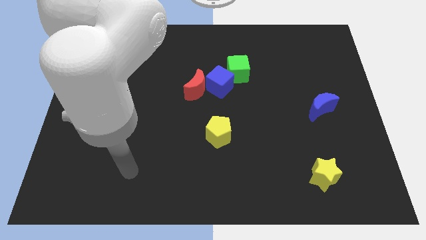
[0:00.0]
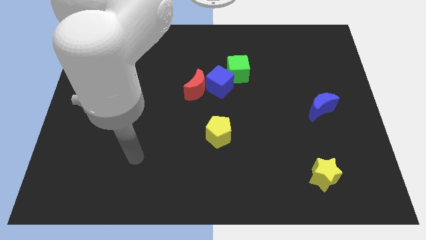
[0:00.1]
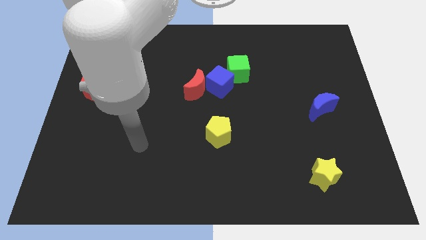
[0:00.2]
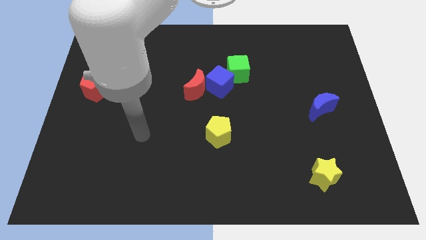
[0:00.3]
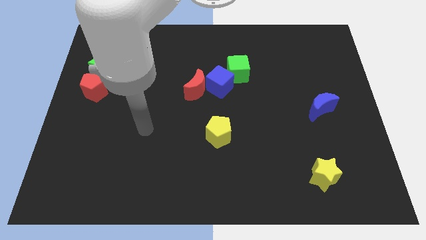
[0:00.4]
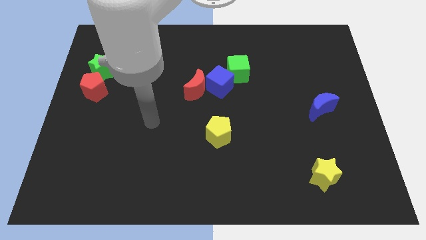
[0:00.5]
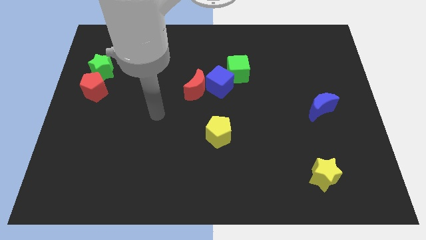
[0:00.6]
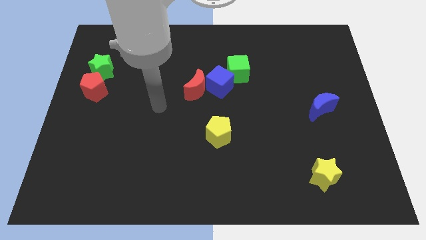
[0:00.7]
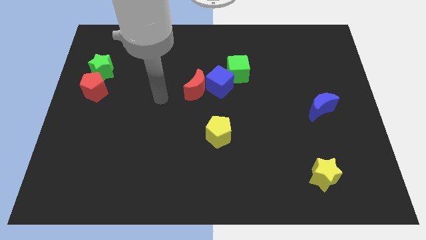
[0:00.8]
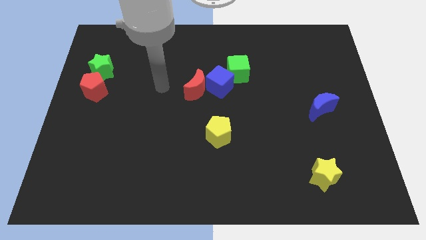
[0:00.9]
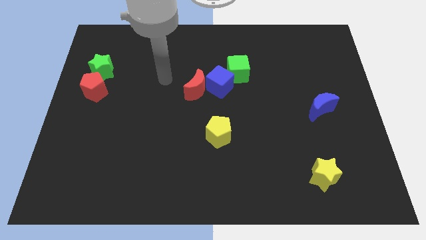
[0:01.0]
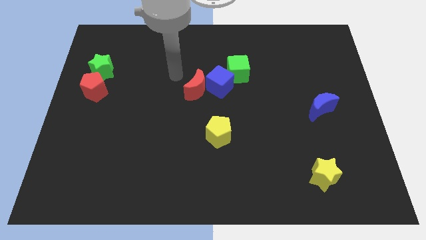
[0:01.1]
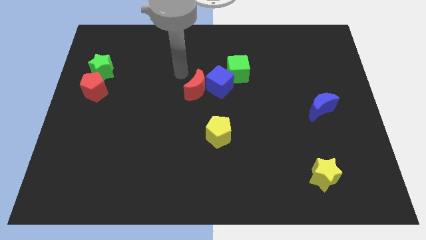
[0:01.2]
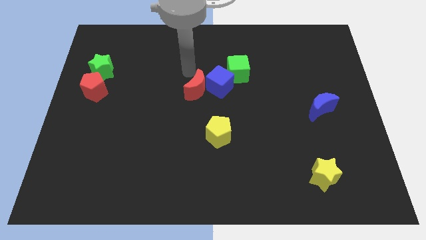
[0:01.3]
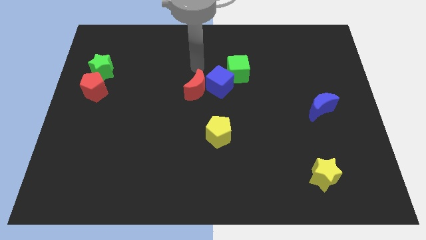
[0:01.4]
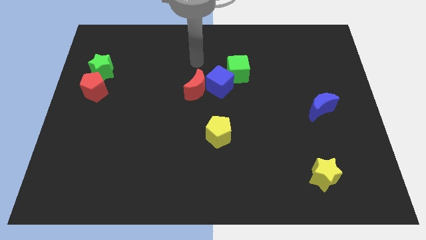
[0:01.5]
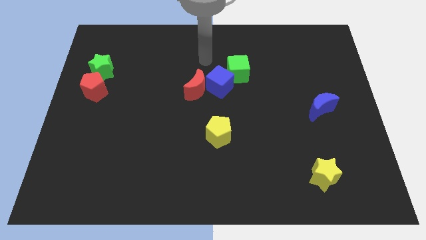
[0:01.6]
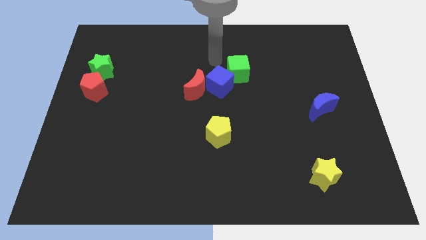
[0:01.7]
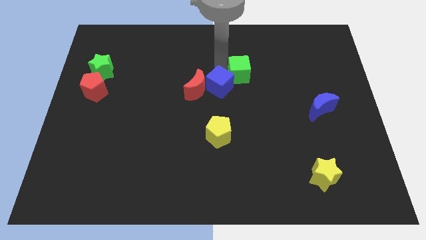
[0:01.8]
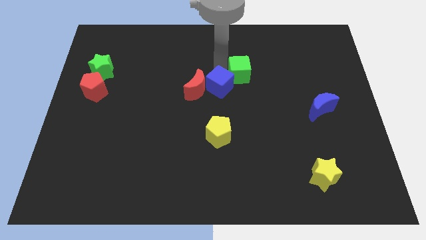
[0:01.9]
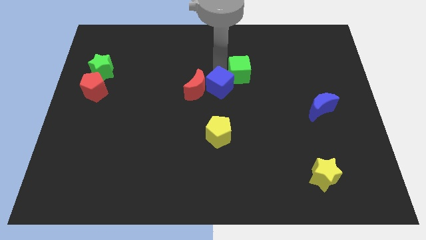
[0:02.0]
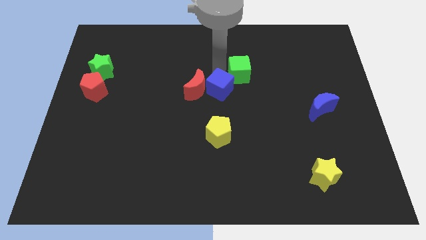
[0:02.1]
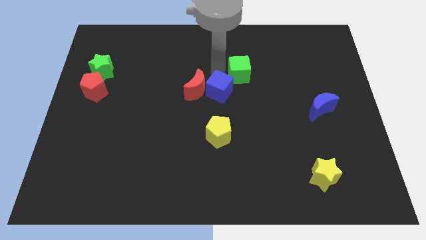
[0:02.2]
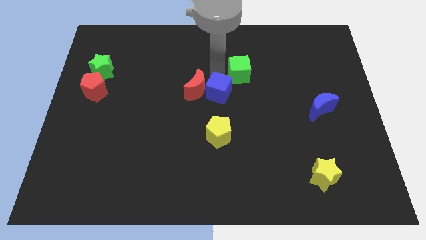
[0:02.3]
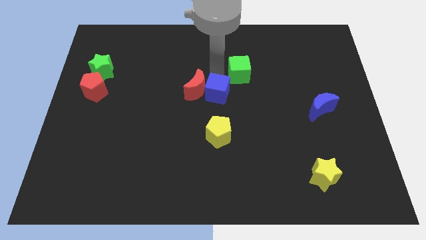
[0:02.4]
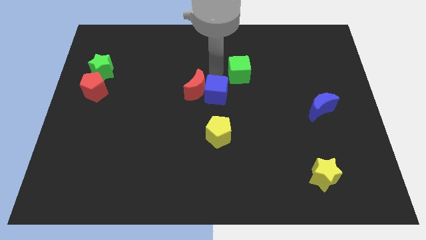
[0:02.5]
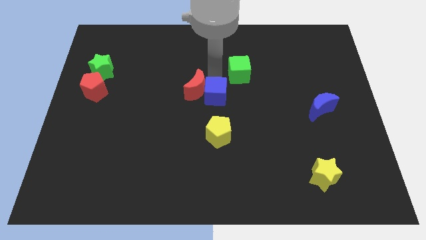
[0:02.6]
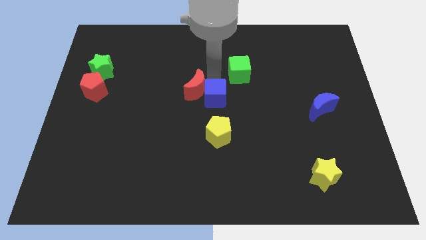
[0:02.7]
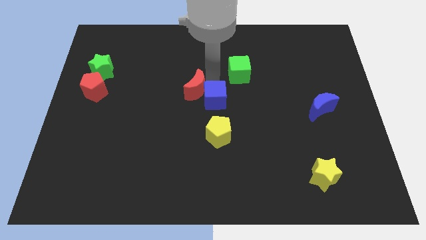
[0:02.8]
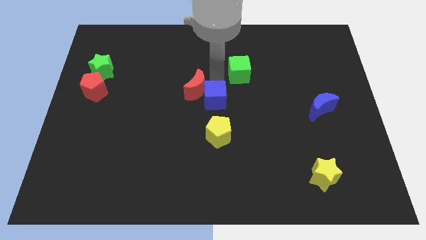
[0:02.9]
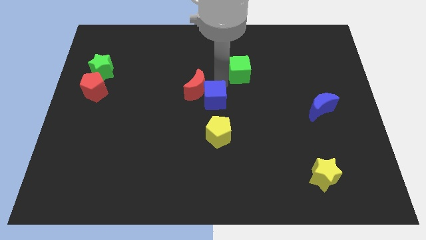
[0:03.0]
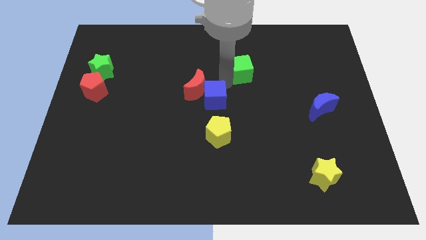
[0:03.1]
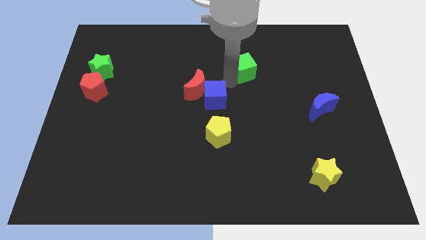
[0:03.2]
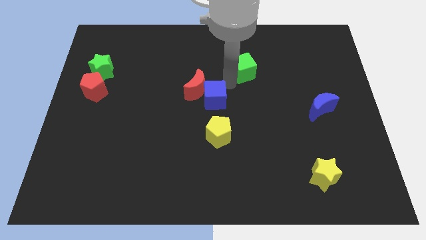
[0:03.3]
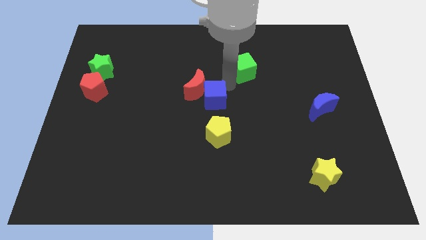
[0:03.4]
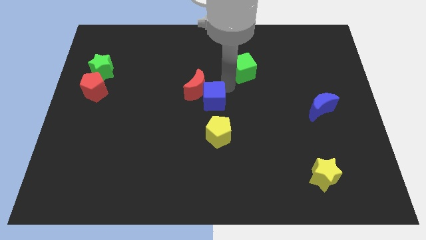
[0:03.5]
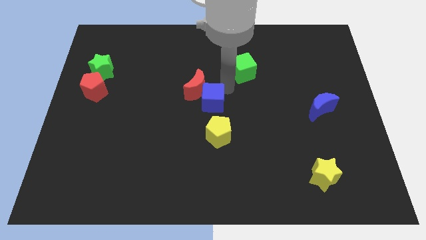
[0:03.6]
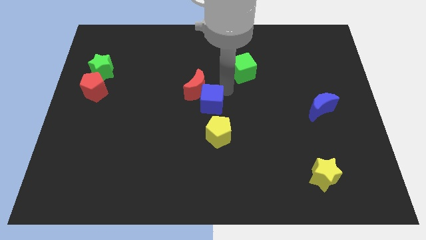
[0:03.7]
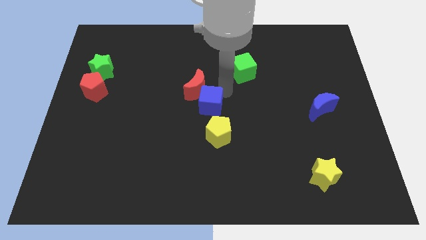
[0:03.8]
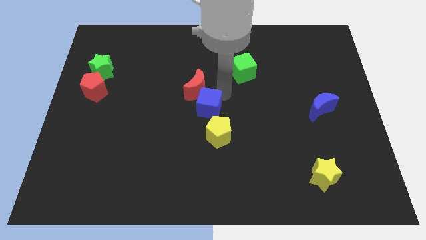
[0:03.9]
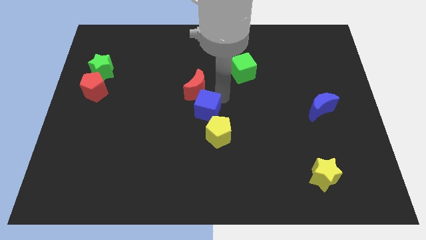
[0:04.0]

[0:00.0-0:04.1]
slightly move the blue cube down and then to the left

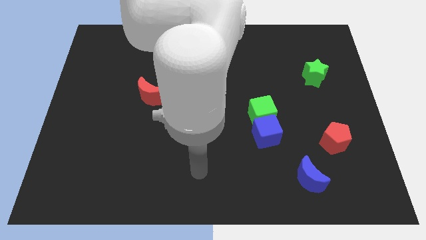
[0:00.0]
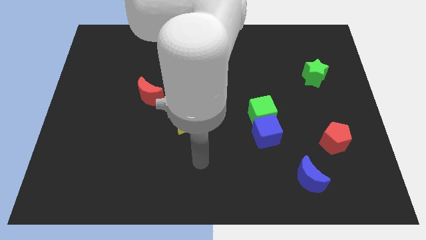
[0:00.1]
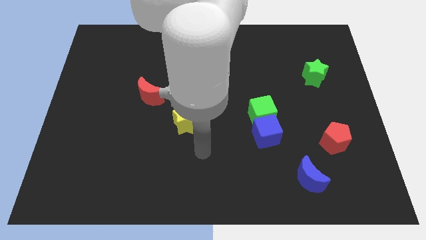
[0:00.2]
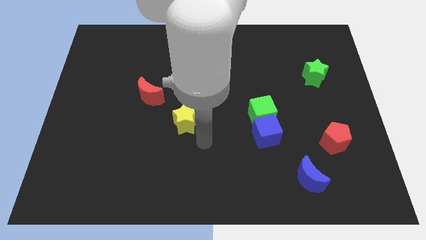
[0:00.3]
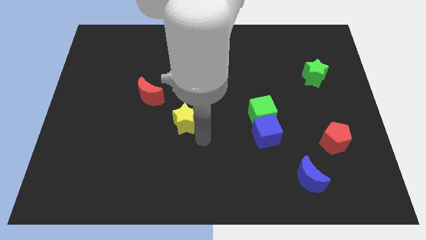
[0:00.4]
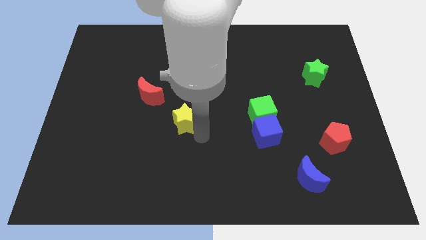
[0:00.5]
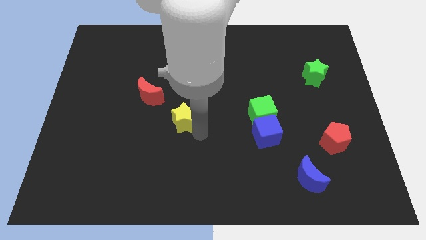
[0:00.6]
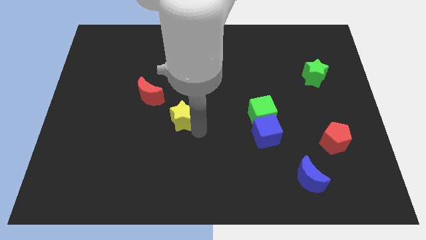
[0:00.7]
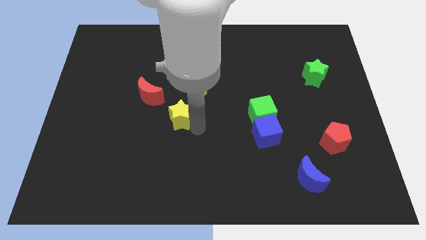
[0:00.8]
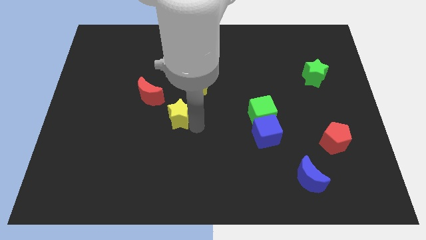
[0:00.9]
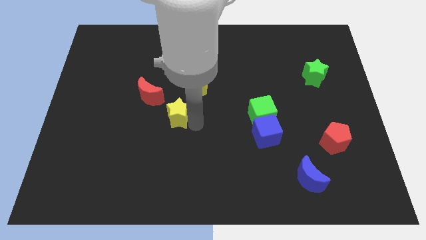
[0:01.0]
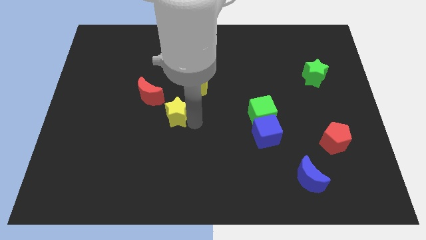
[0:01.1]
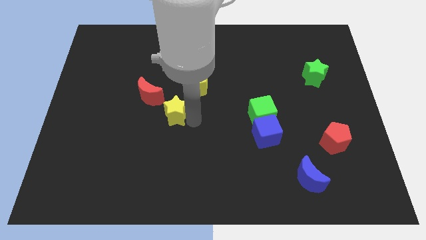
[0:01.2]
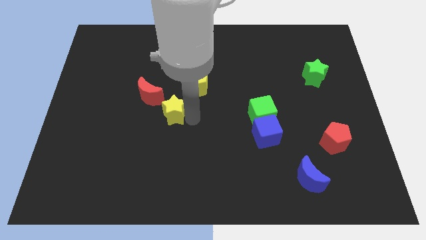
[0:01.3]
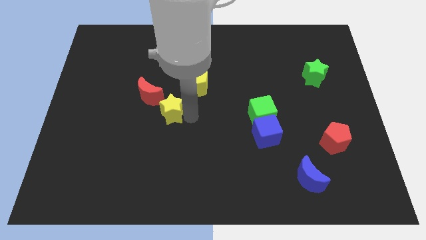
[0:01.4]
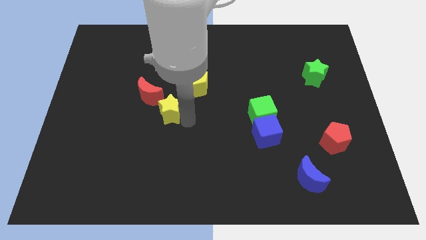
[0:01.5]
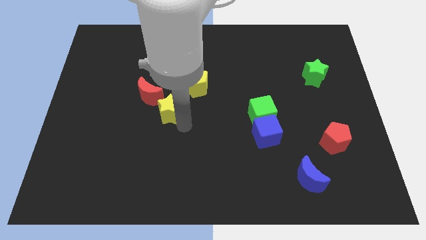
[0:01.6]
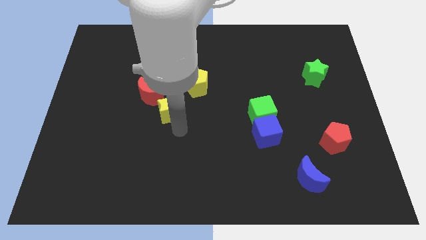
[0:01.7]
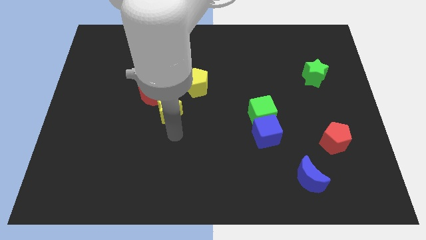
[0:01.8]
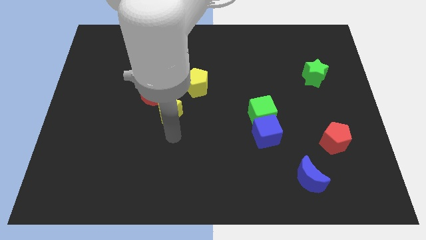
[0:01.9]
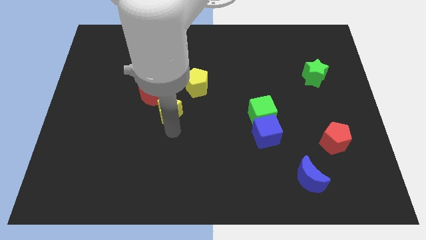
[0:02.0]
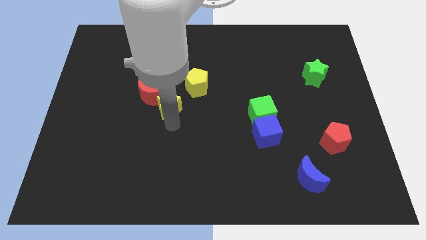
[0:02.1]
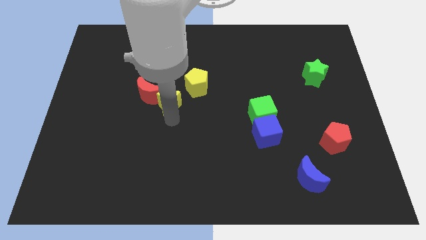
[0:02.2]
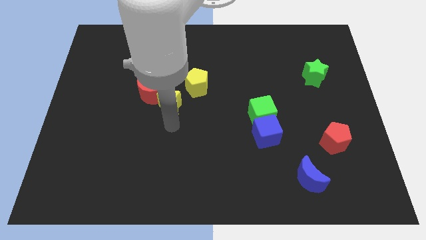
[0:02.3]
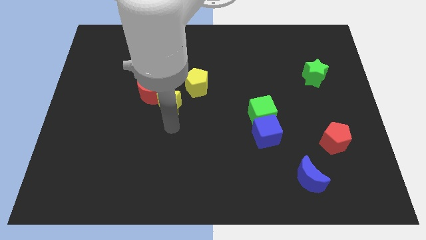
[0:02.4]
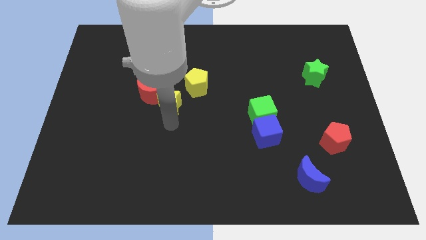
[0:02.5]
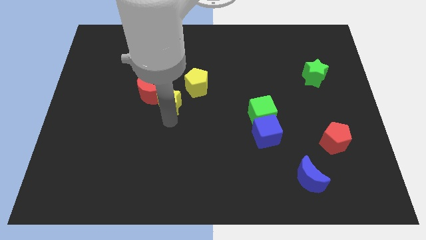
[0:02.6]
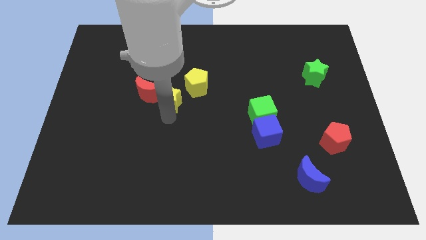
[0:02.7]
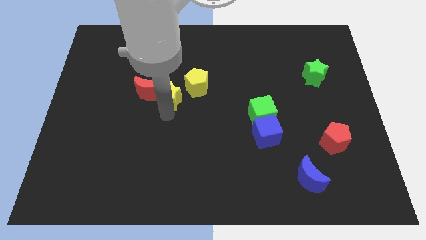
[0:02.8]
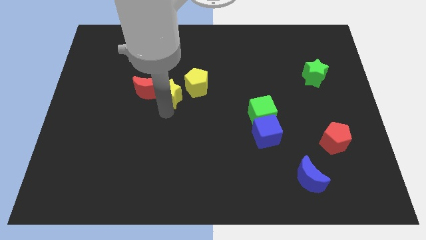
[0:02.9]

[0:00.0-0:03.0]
push the yellow star upwards a bit

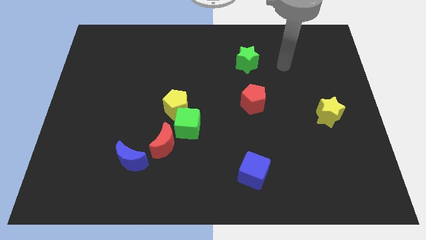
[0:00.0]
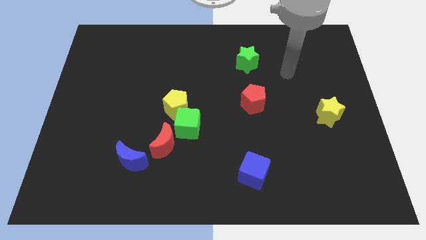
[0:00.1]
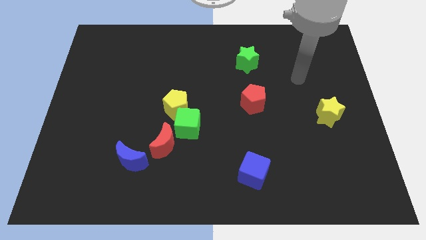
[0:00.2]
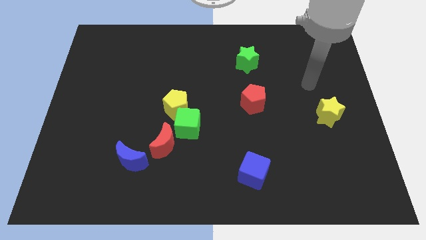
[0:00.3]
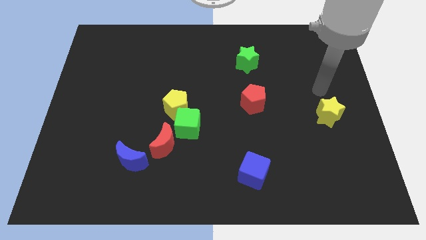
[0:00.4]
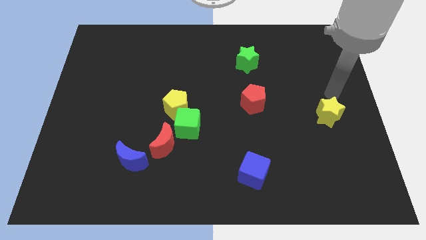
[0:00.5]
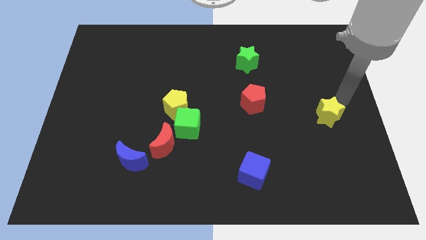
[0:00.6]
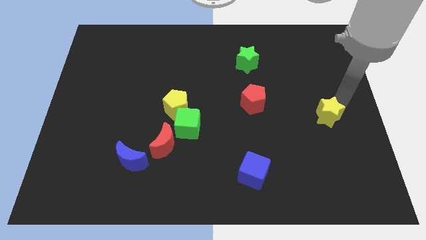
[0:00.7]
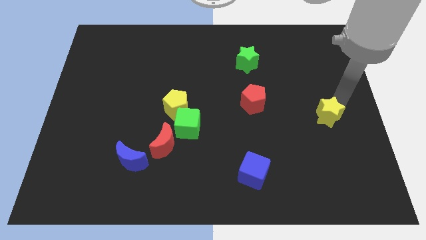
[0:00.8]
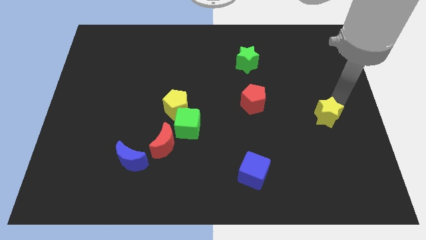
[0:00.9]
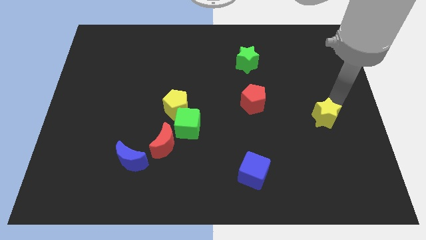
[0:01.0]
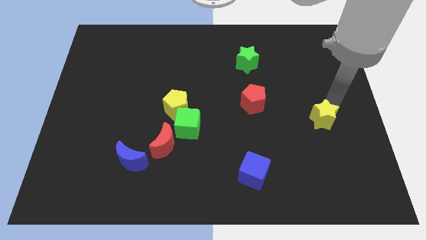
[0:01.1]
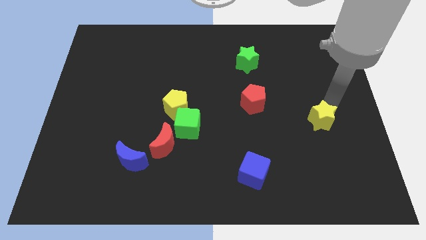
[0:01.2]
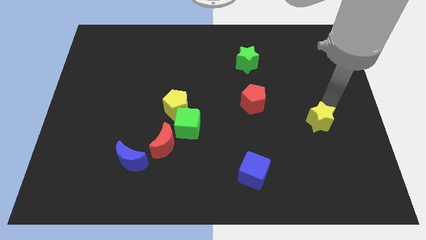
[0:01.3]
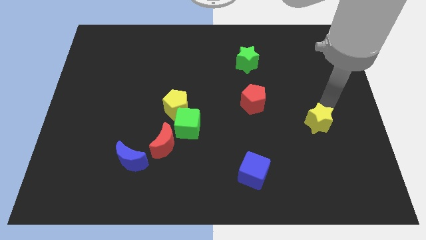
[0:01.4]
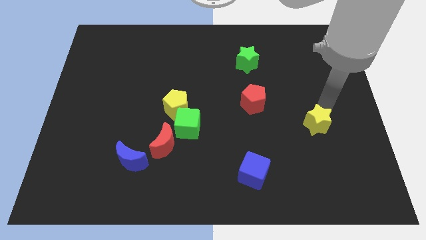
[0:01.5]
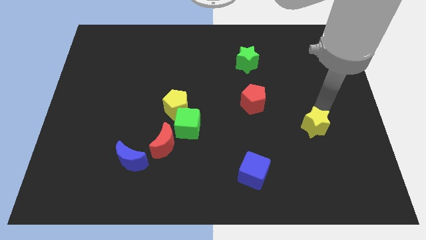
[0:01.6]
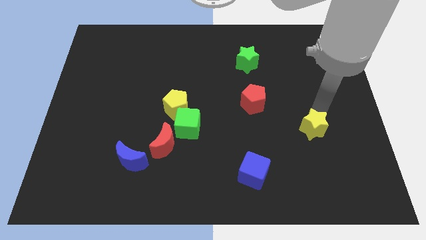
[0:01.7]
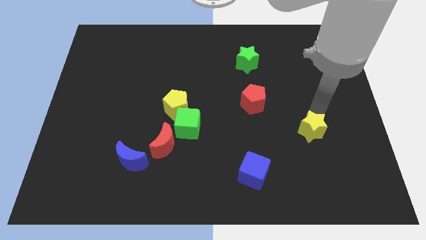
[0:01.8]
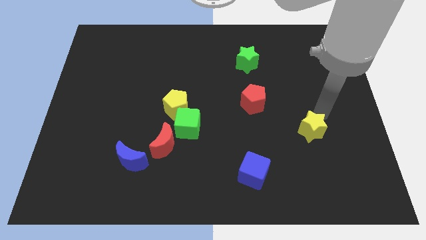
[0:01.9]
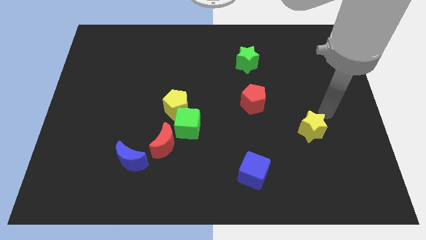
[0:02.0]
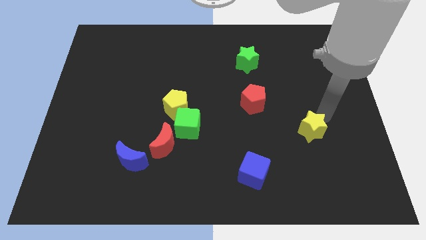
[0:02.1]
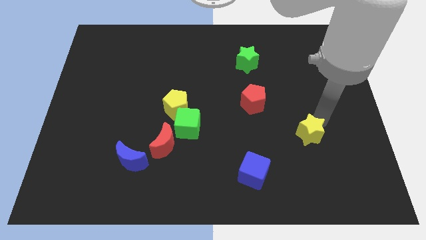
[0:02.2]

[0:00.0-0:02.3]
push the yellow star downwards and then left somewhat
